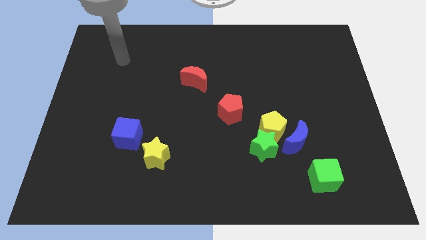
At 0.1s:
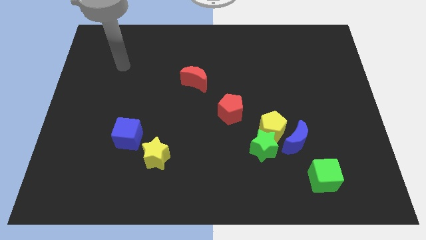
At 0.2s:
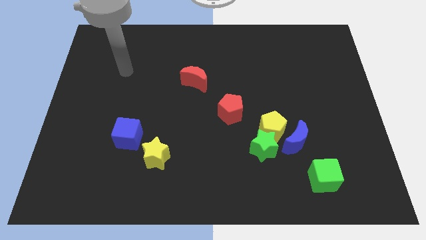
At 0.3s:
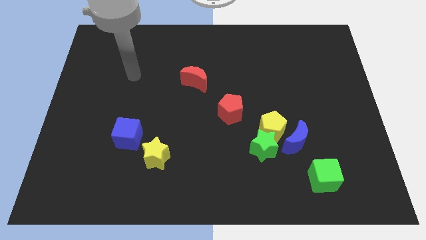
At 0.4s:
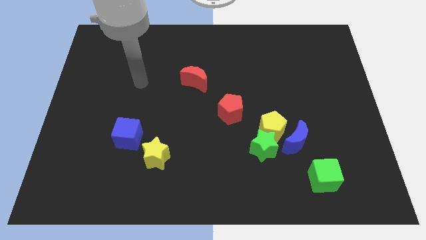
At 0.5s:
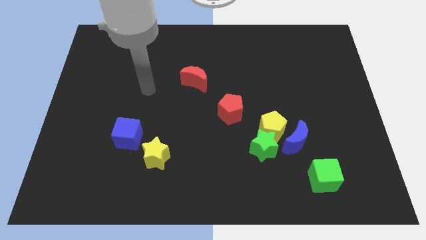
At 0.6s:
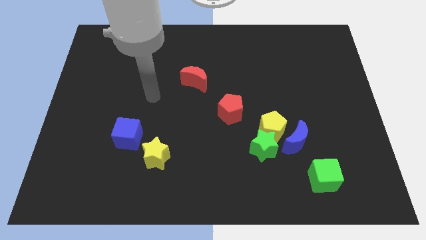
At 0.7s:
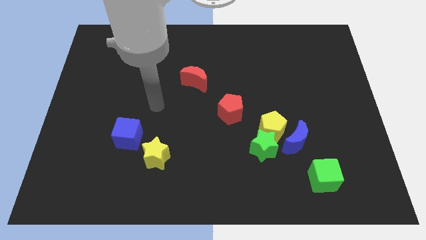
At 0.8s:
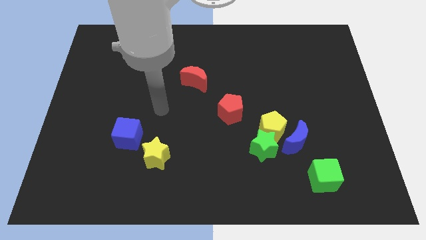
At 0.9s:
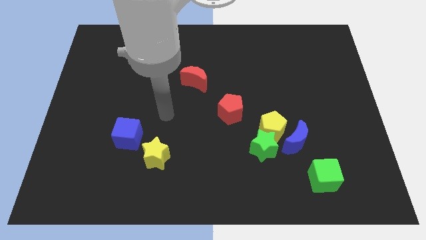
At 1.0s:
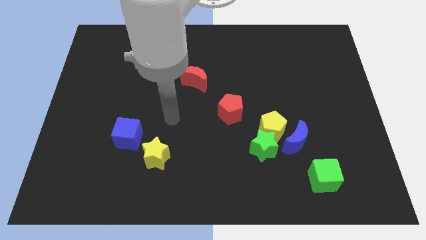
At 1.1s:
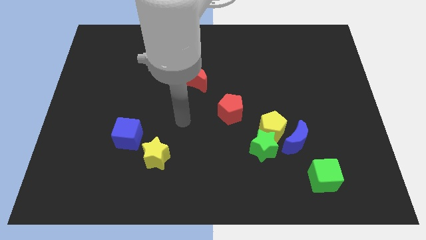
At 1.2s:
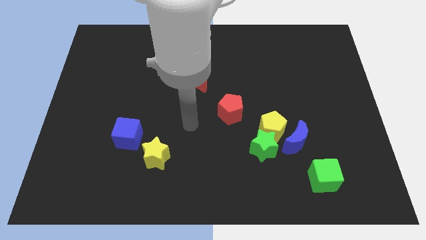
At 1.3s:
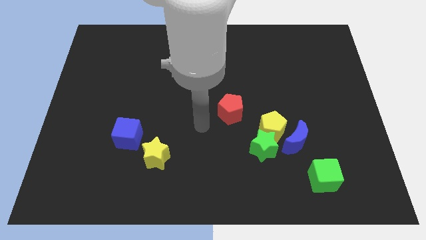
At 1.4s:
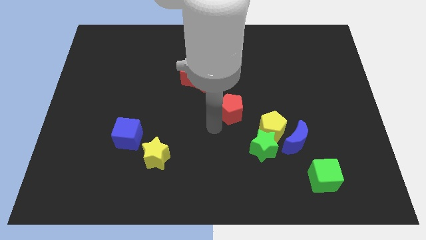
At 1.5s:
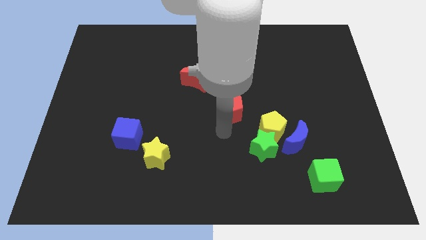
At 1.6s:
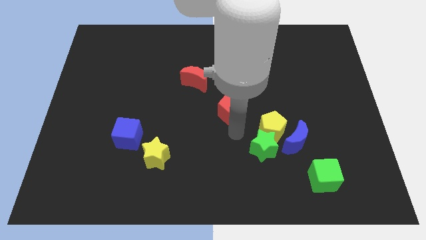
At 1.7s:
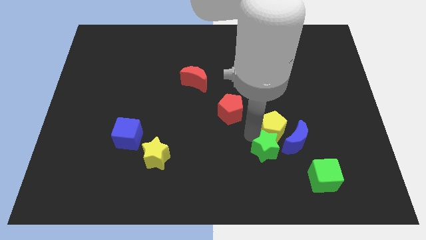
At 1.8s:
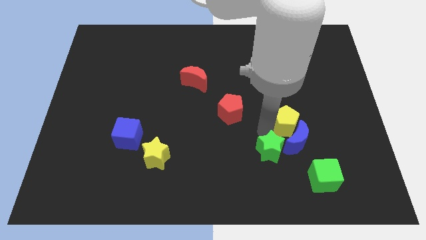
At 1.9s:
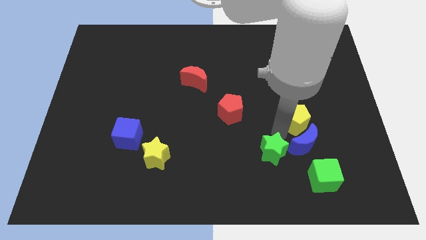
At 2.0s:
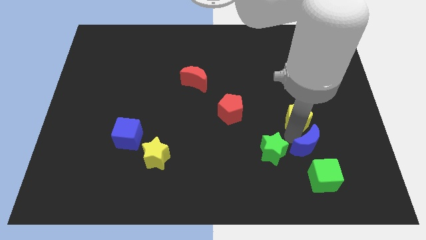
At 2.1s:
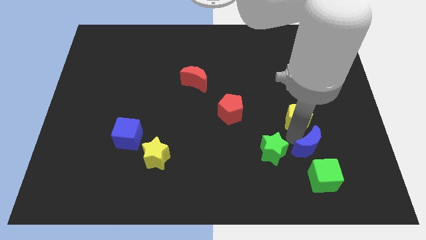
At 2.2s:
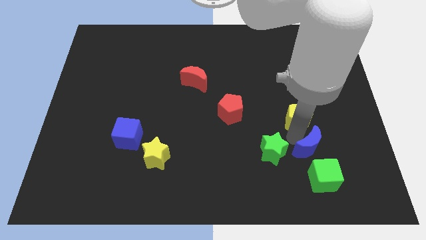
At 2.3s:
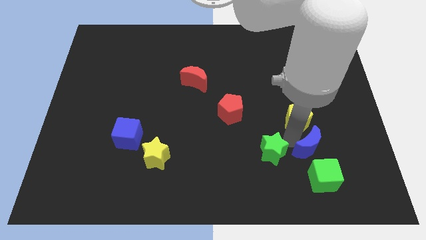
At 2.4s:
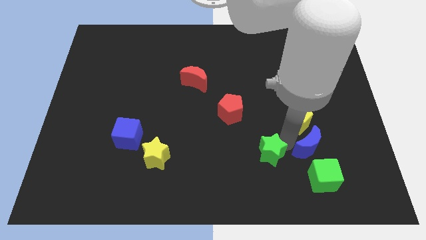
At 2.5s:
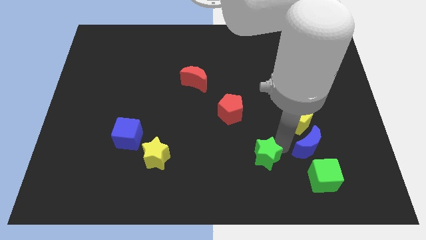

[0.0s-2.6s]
move the green star away from the yellow pentagon and blue moon

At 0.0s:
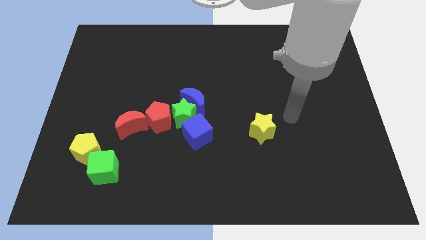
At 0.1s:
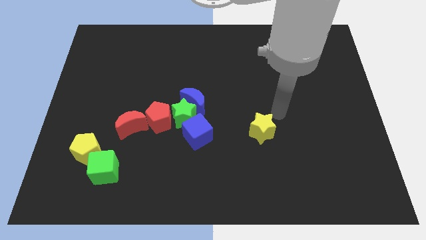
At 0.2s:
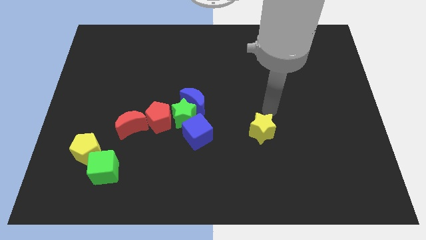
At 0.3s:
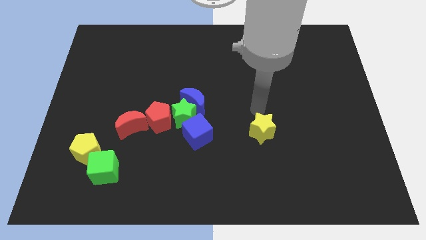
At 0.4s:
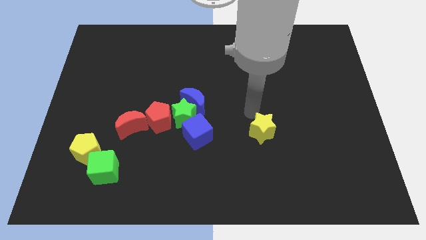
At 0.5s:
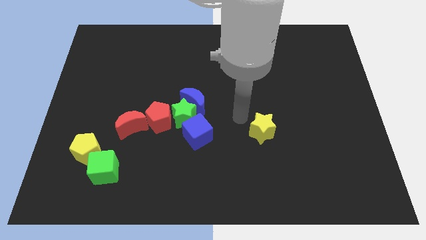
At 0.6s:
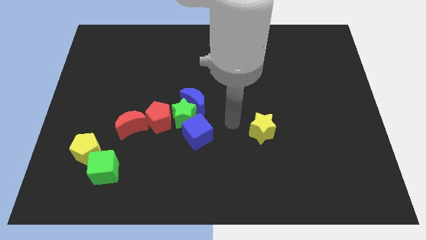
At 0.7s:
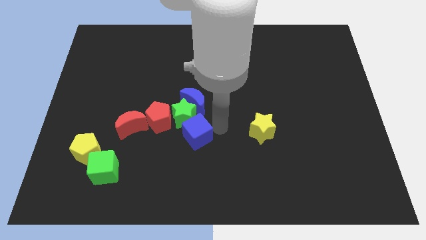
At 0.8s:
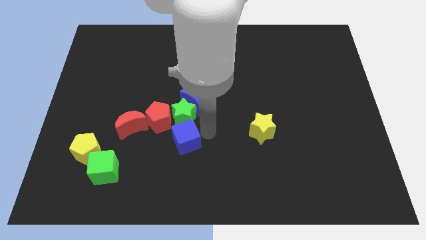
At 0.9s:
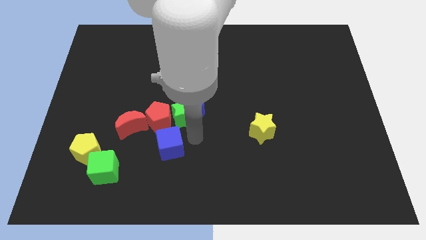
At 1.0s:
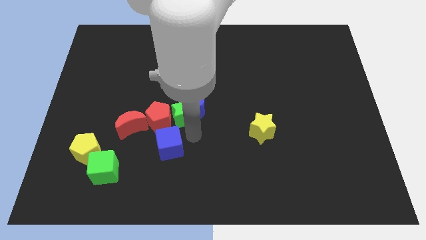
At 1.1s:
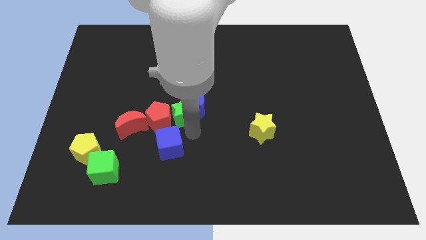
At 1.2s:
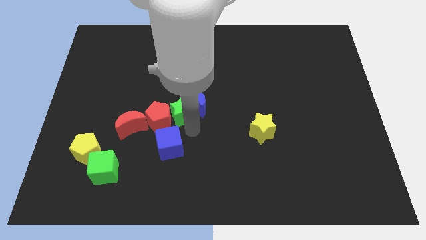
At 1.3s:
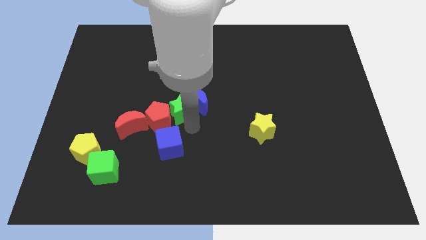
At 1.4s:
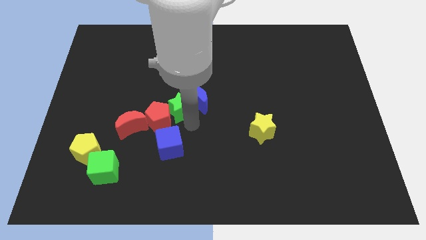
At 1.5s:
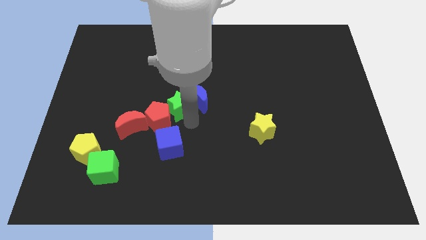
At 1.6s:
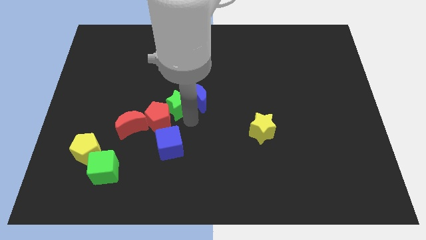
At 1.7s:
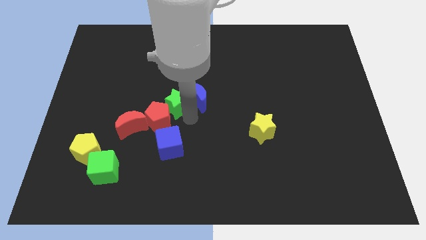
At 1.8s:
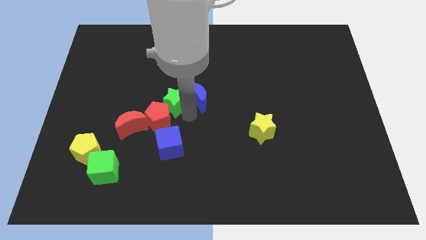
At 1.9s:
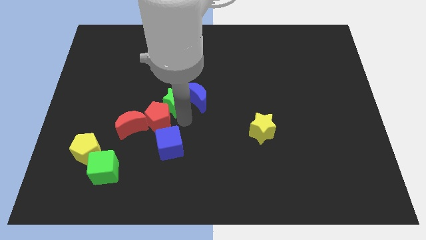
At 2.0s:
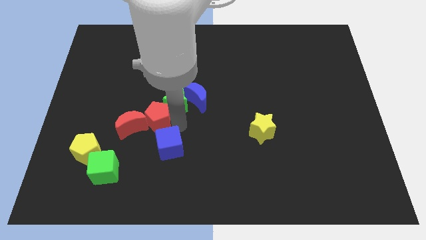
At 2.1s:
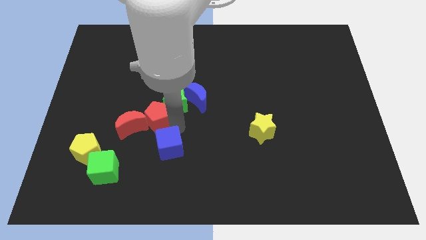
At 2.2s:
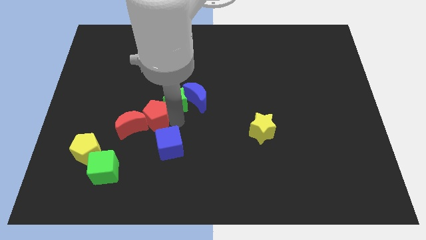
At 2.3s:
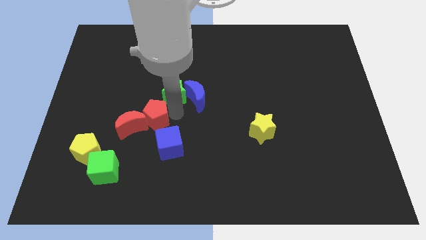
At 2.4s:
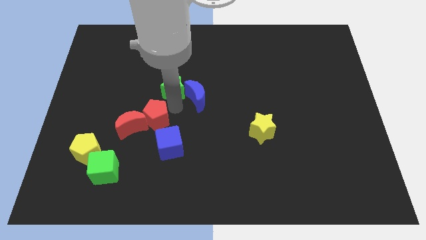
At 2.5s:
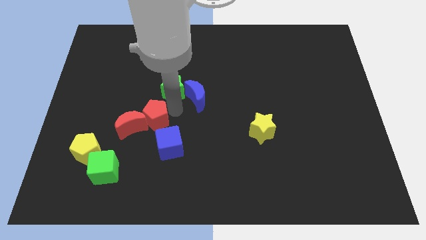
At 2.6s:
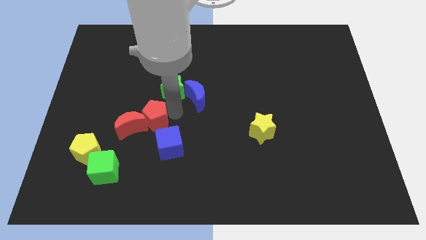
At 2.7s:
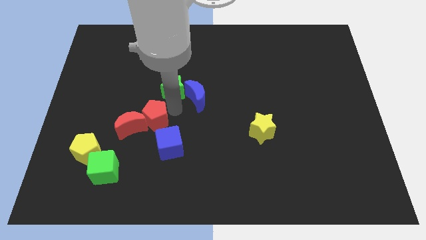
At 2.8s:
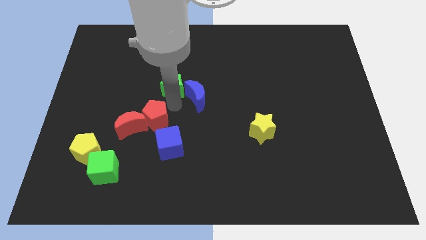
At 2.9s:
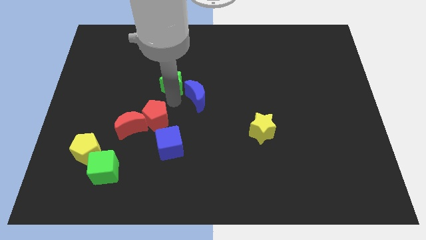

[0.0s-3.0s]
pull the green star apart from the blue moon, red pentagon, and blue cube

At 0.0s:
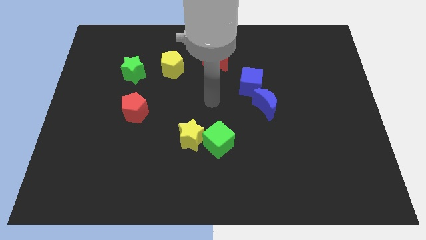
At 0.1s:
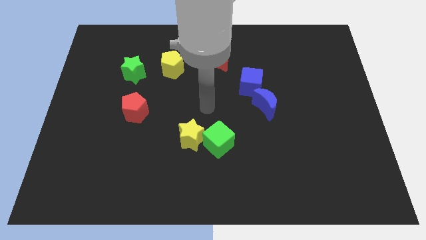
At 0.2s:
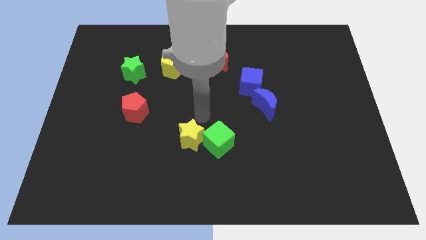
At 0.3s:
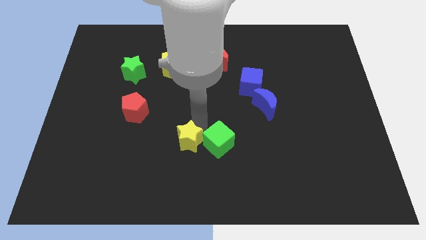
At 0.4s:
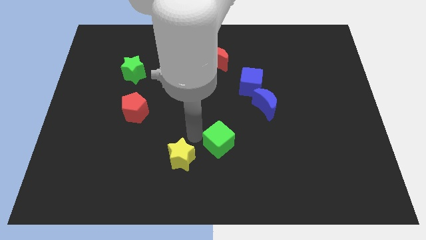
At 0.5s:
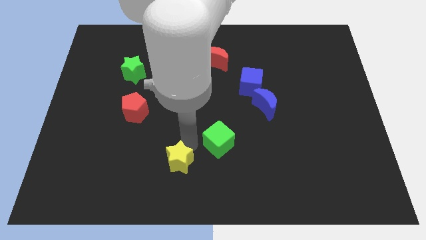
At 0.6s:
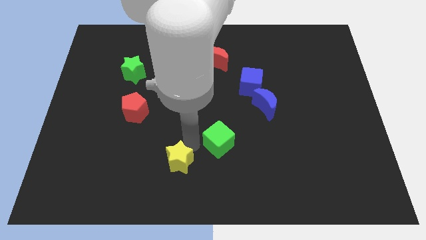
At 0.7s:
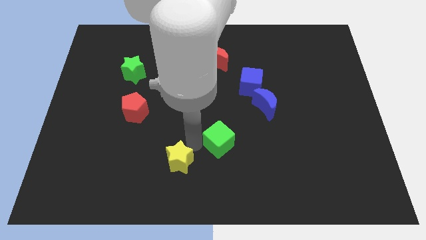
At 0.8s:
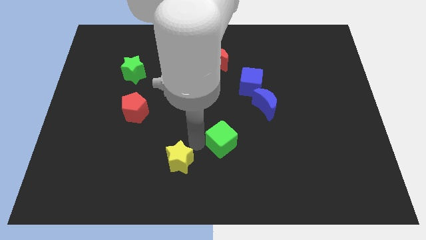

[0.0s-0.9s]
separate the green cube from the yellow star

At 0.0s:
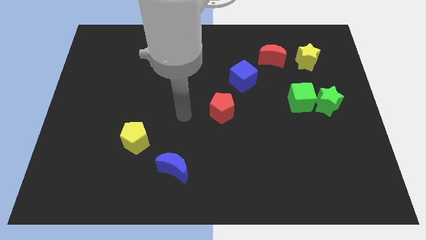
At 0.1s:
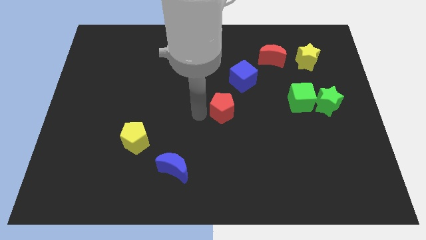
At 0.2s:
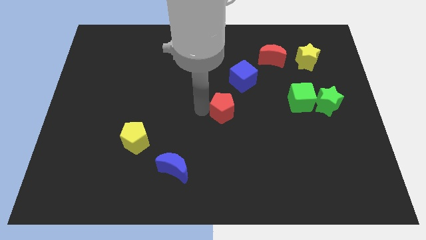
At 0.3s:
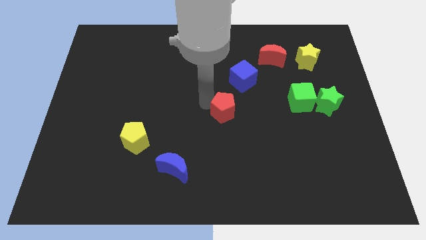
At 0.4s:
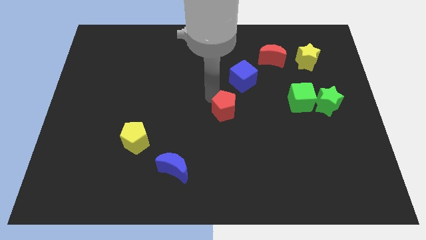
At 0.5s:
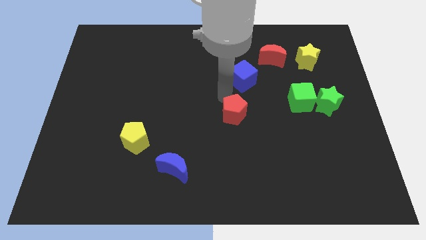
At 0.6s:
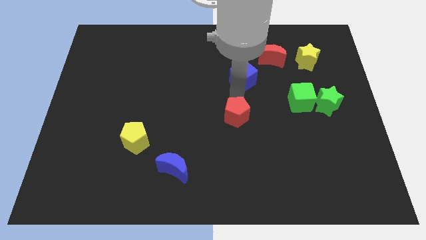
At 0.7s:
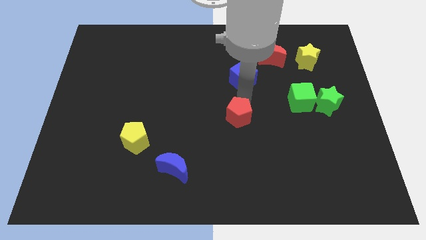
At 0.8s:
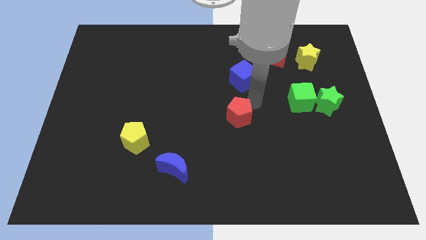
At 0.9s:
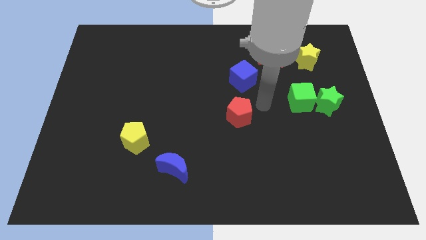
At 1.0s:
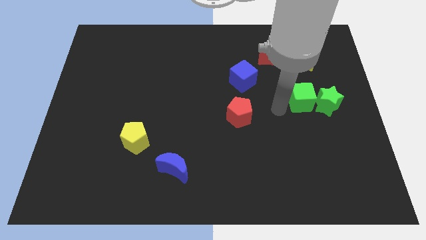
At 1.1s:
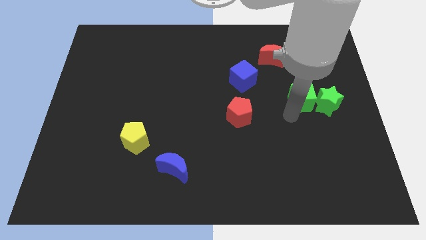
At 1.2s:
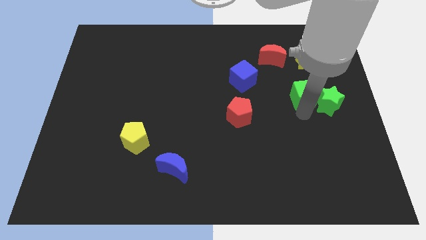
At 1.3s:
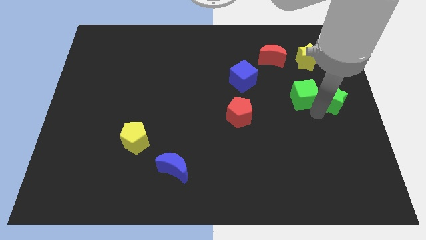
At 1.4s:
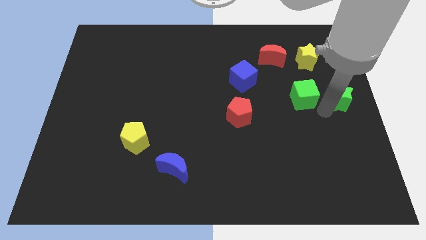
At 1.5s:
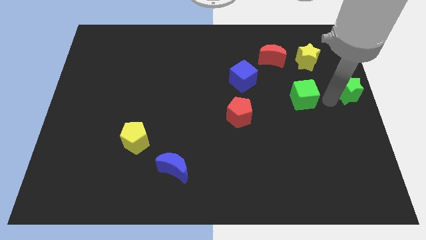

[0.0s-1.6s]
pull the green cube apart from the green star

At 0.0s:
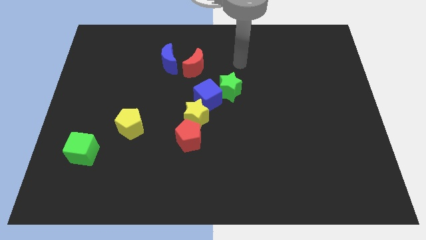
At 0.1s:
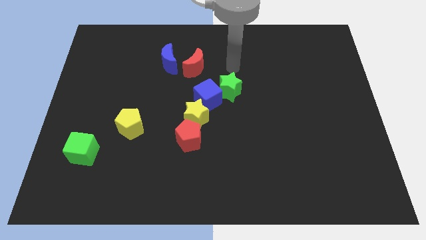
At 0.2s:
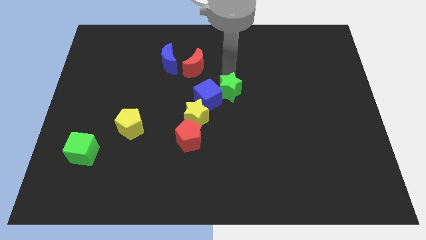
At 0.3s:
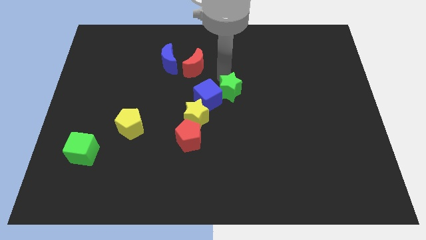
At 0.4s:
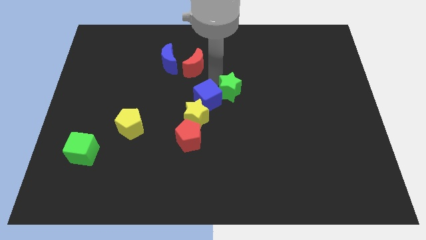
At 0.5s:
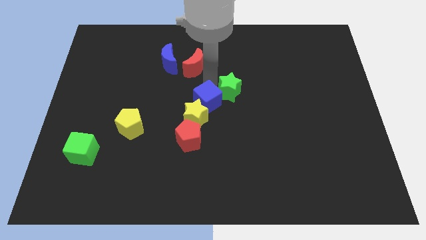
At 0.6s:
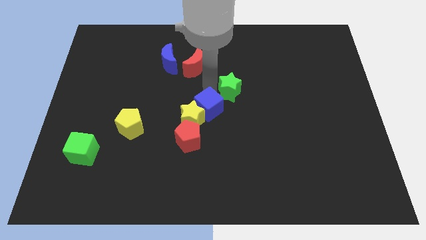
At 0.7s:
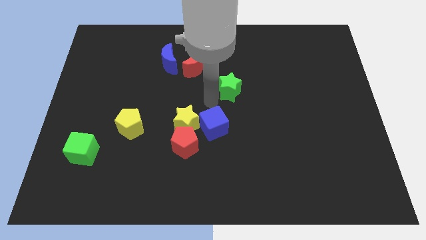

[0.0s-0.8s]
pull the green star apart from the blue cube

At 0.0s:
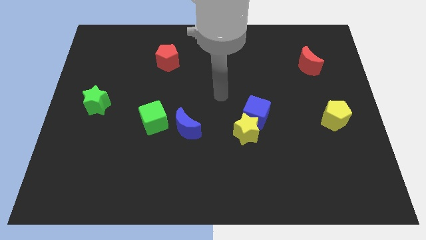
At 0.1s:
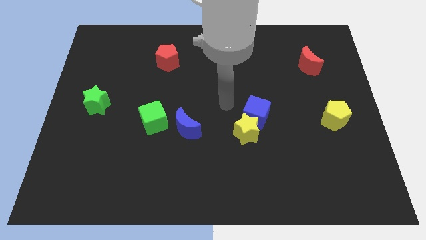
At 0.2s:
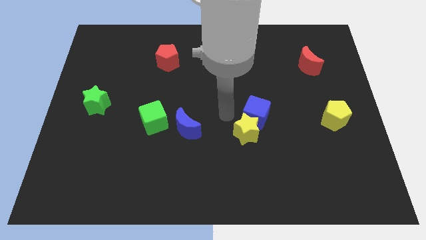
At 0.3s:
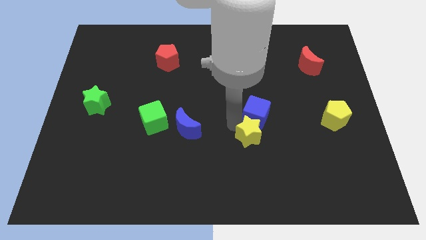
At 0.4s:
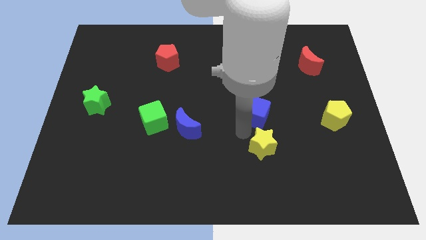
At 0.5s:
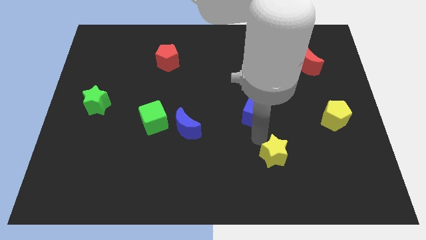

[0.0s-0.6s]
separate the blue cube from the yellow star

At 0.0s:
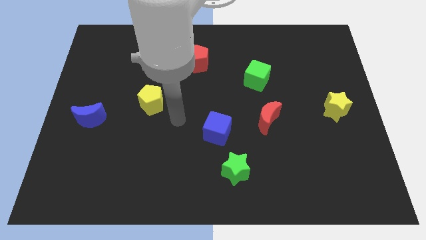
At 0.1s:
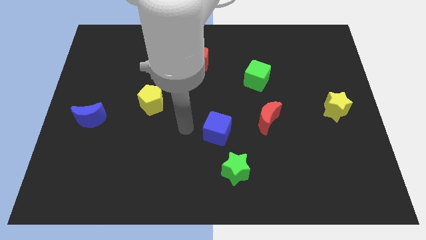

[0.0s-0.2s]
separate the blue cube from the green star
